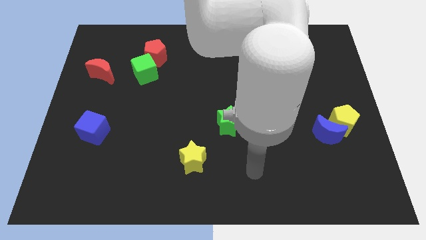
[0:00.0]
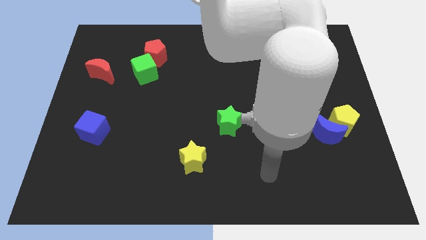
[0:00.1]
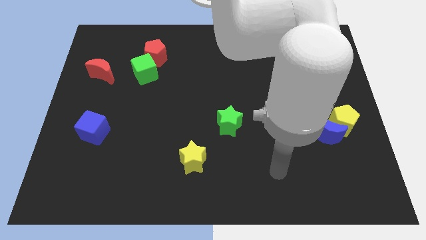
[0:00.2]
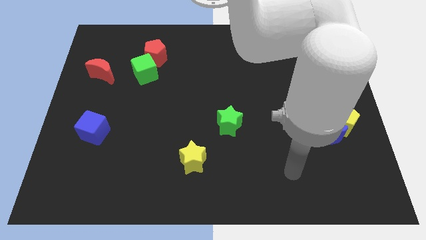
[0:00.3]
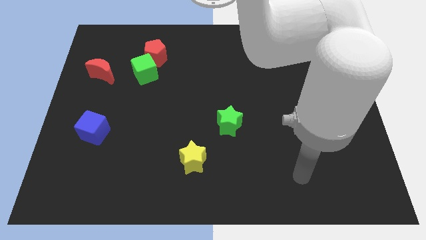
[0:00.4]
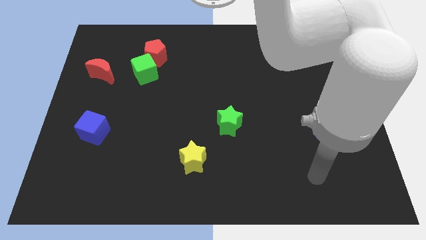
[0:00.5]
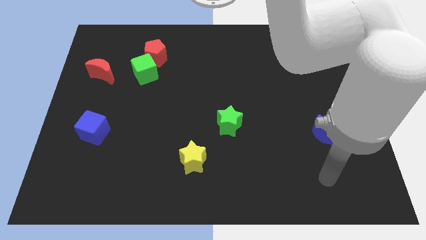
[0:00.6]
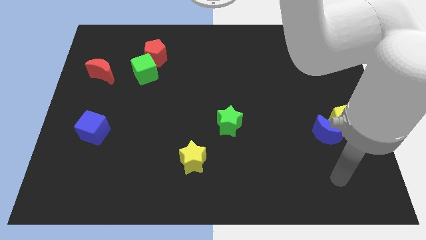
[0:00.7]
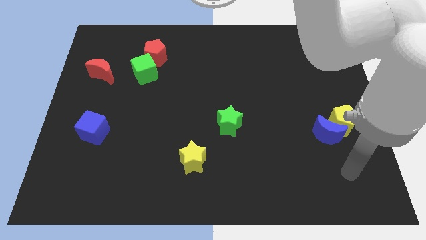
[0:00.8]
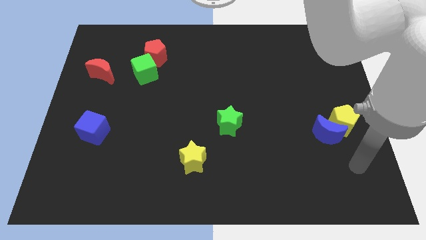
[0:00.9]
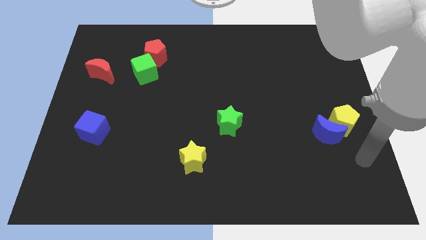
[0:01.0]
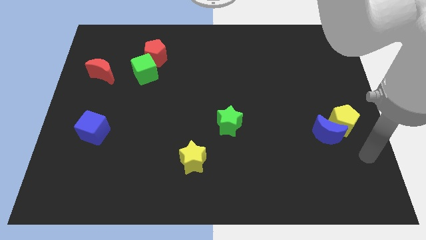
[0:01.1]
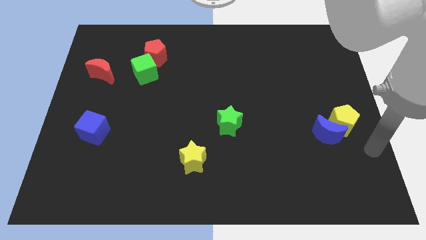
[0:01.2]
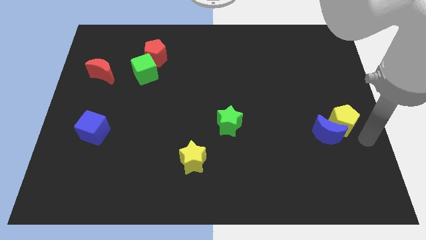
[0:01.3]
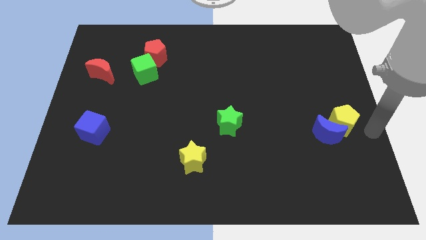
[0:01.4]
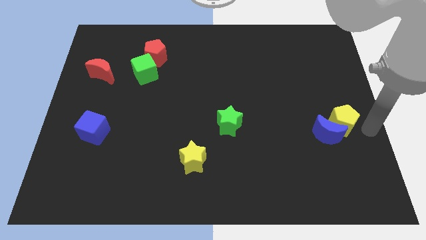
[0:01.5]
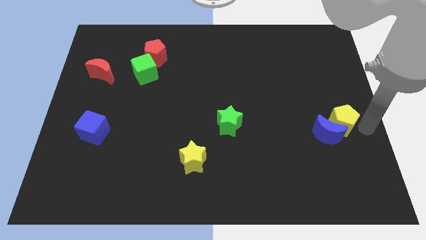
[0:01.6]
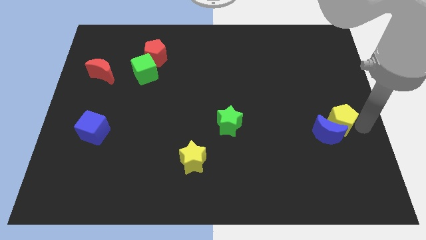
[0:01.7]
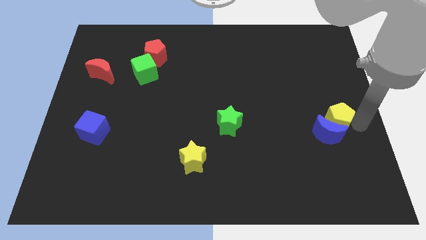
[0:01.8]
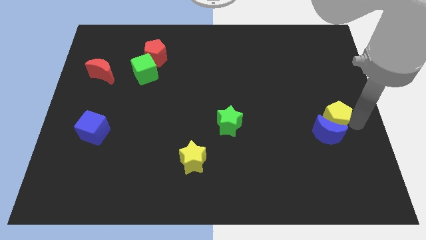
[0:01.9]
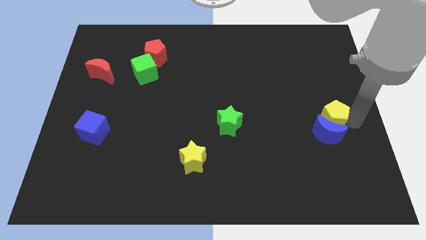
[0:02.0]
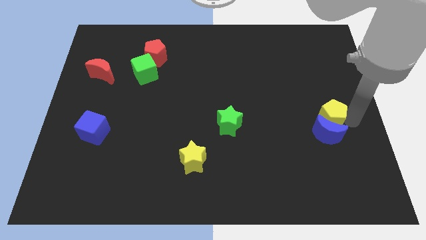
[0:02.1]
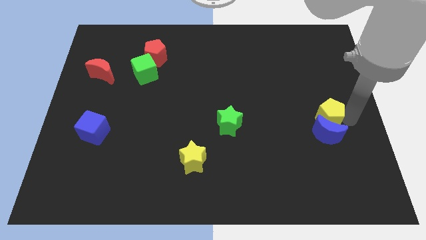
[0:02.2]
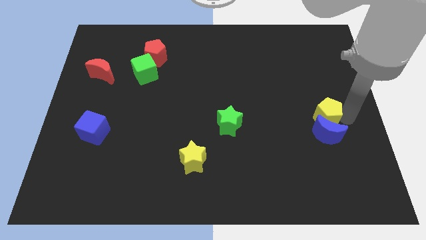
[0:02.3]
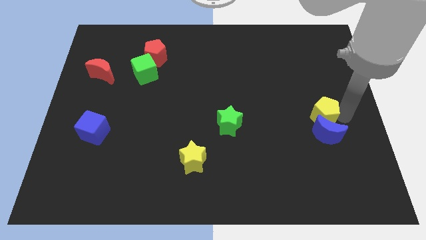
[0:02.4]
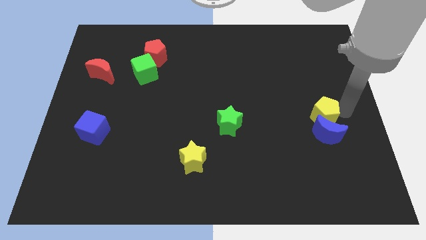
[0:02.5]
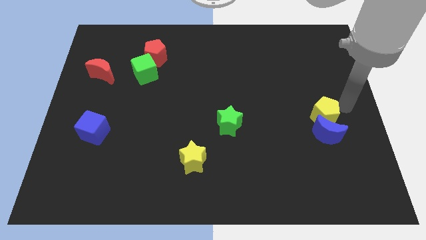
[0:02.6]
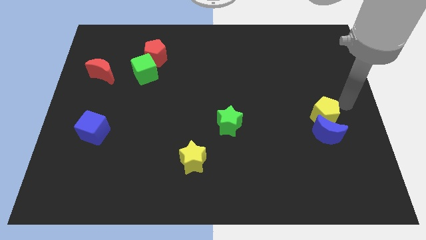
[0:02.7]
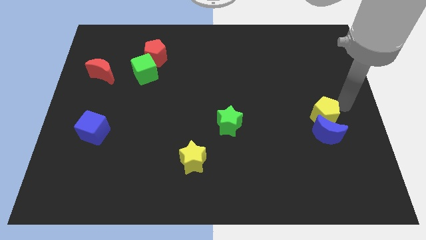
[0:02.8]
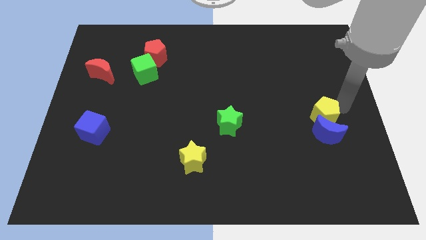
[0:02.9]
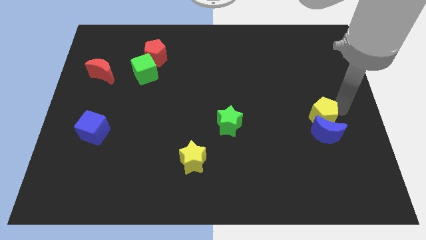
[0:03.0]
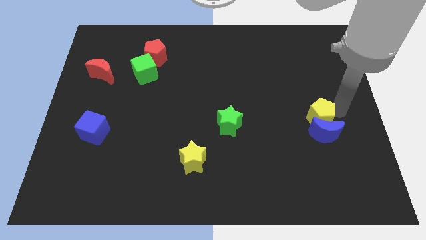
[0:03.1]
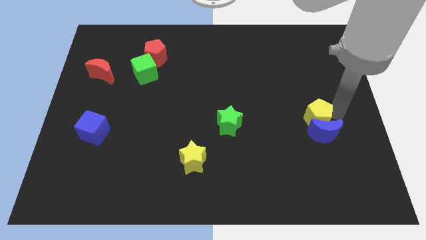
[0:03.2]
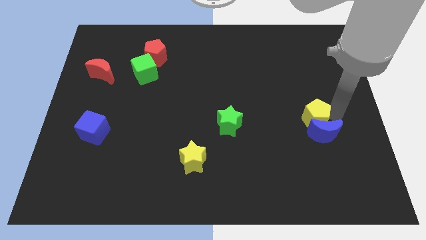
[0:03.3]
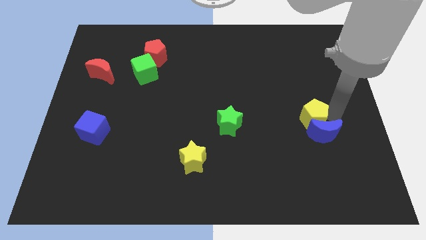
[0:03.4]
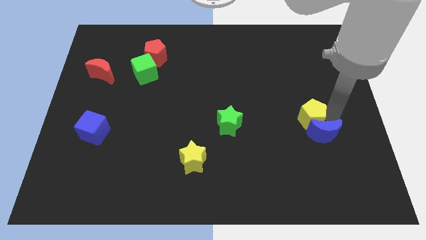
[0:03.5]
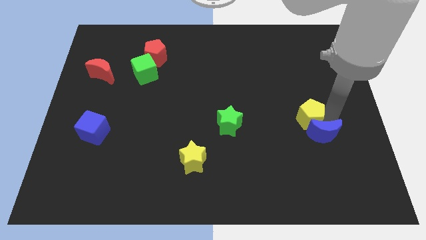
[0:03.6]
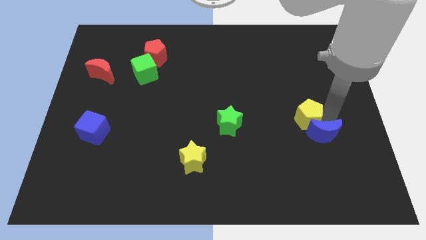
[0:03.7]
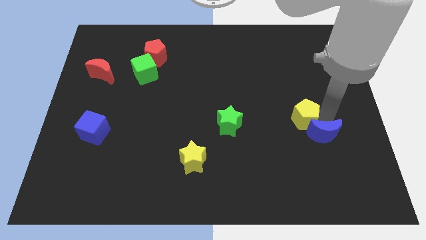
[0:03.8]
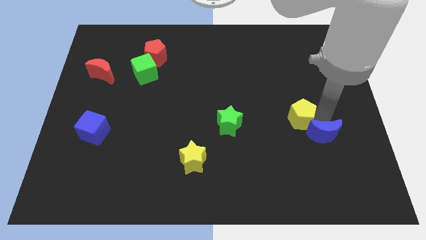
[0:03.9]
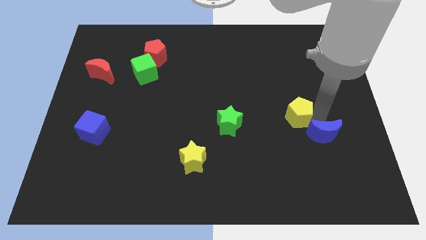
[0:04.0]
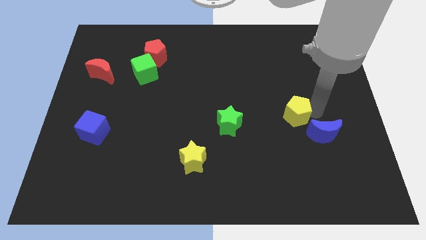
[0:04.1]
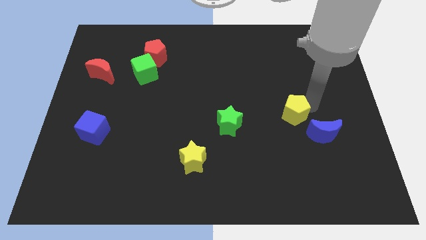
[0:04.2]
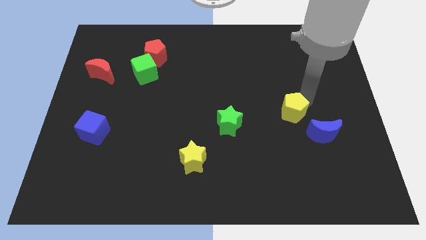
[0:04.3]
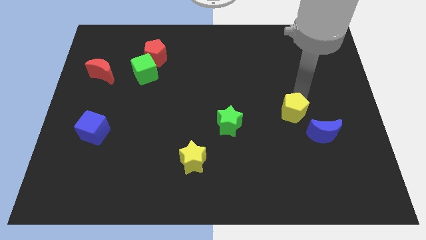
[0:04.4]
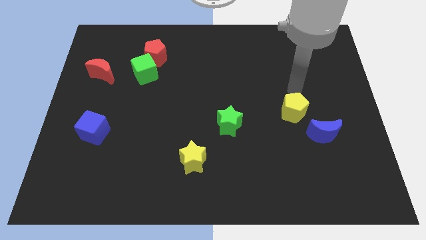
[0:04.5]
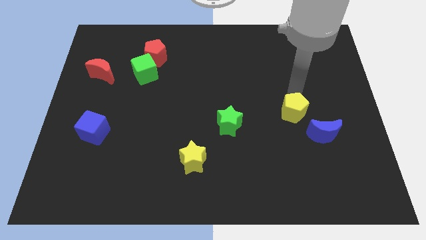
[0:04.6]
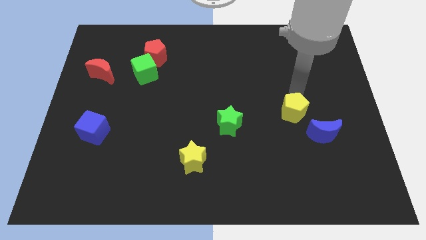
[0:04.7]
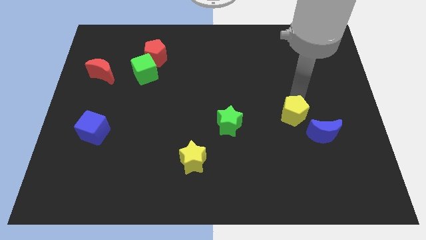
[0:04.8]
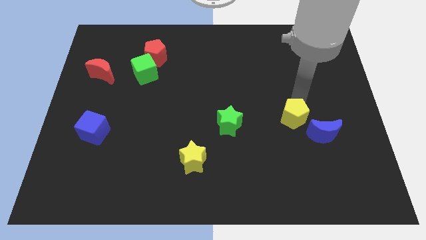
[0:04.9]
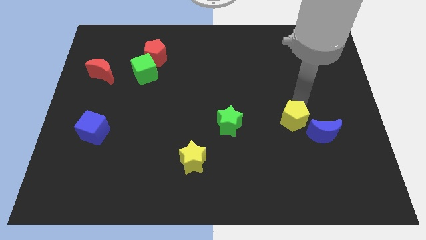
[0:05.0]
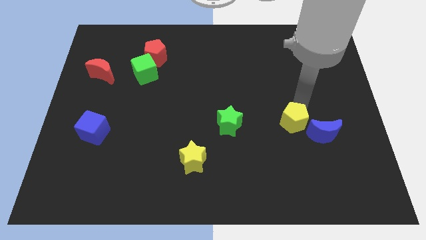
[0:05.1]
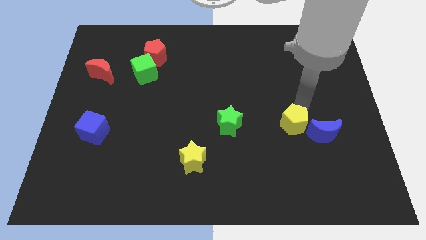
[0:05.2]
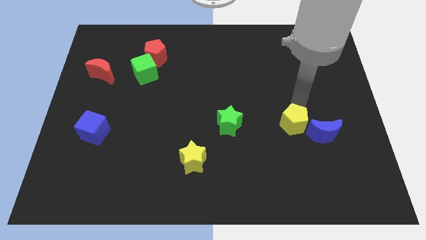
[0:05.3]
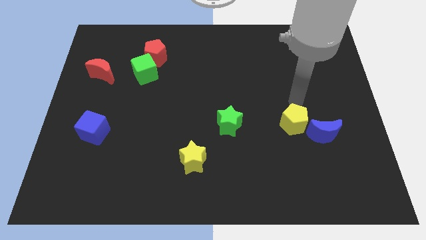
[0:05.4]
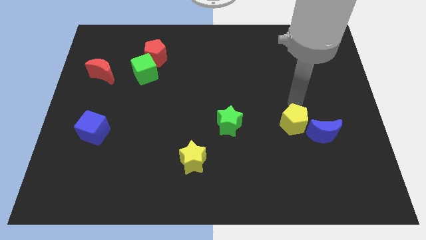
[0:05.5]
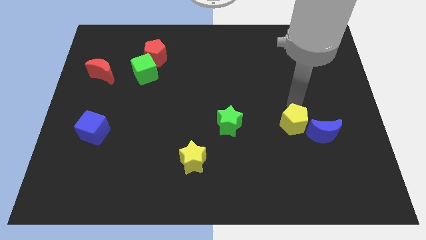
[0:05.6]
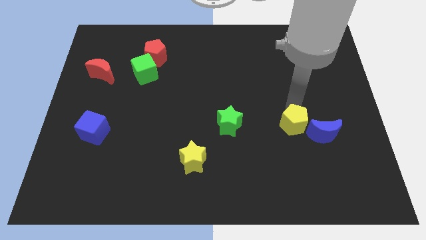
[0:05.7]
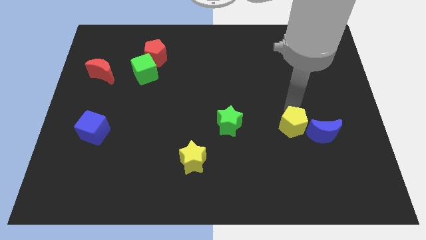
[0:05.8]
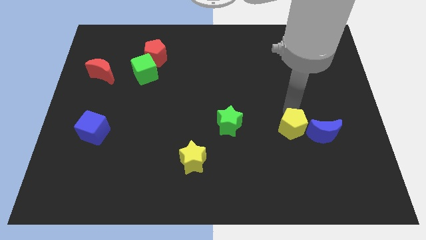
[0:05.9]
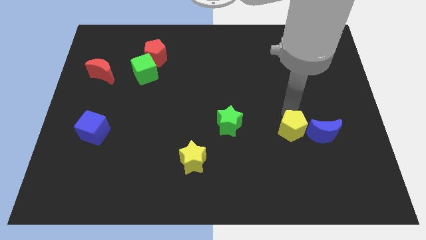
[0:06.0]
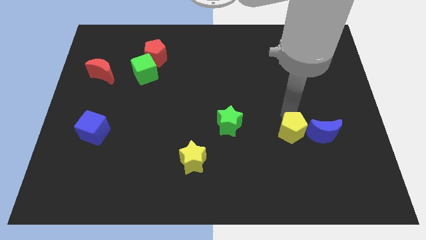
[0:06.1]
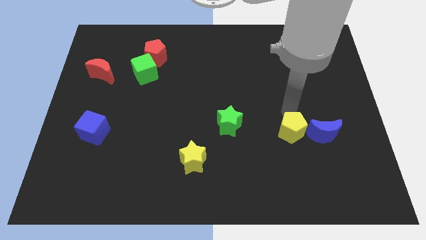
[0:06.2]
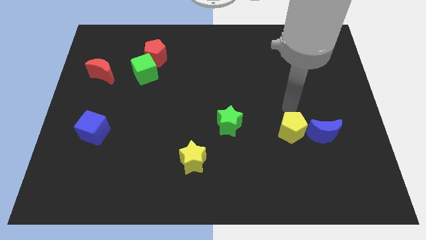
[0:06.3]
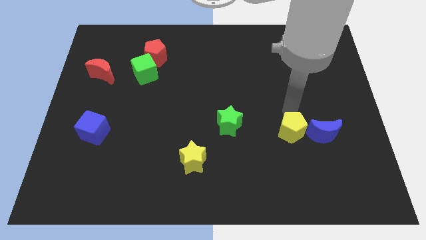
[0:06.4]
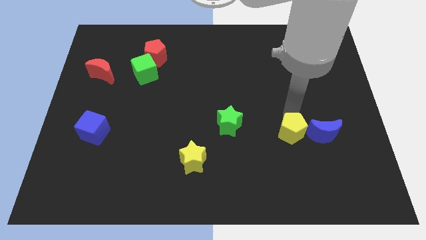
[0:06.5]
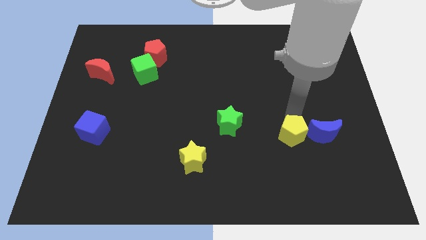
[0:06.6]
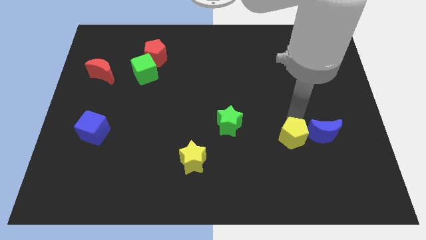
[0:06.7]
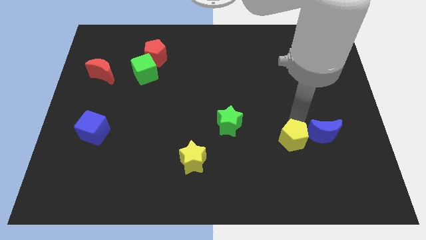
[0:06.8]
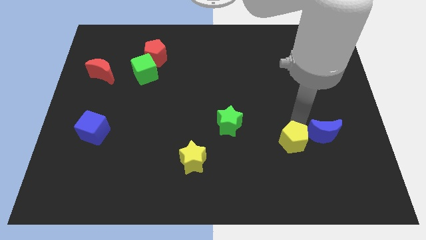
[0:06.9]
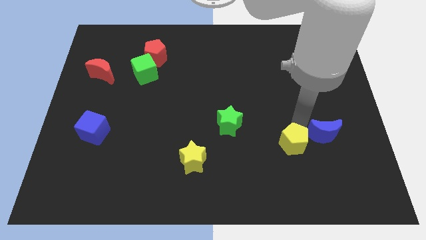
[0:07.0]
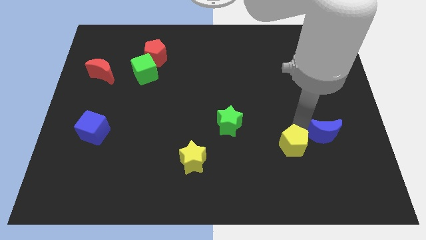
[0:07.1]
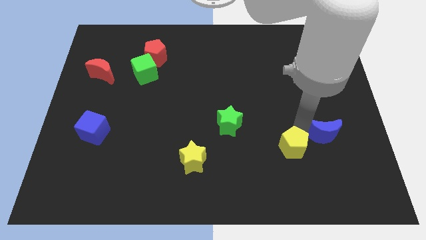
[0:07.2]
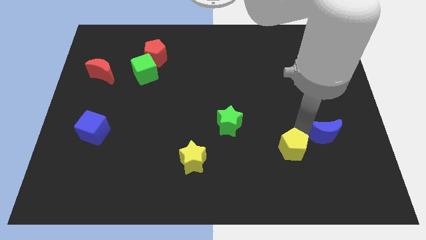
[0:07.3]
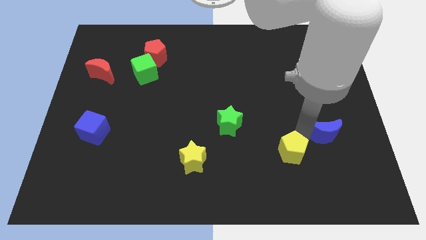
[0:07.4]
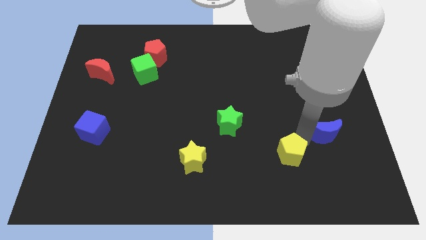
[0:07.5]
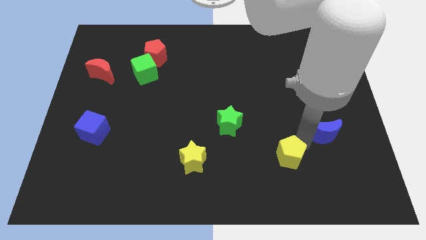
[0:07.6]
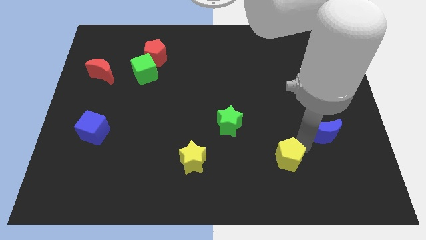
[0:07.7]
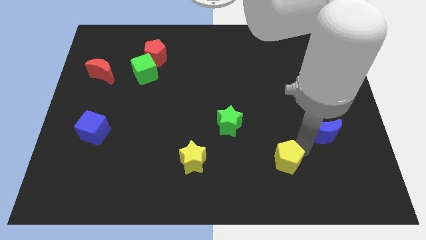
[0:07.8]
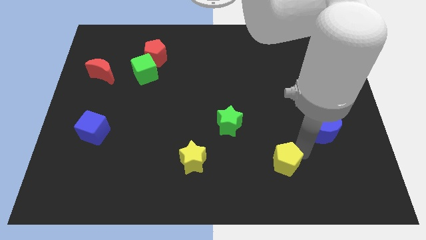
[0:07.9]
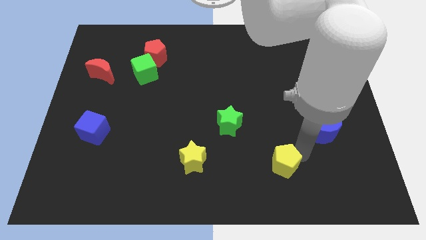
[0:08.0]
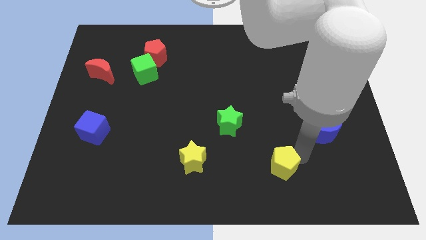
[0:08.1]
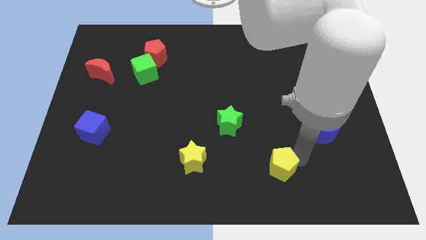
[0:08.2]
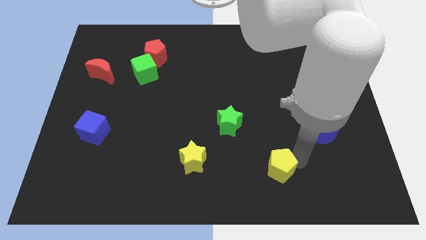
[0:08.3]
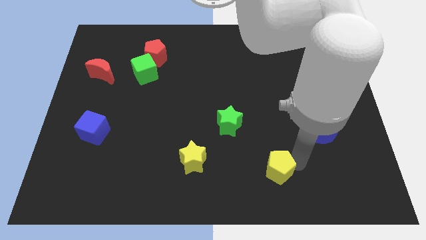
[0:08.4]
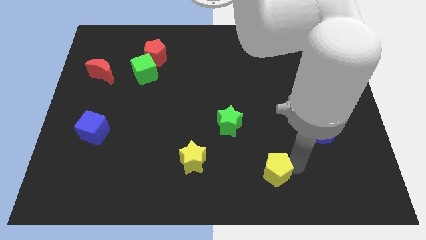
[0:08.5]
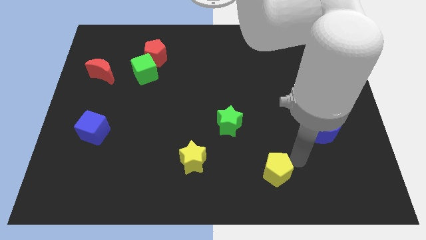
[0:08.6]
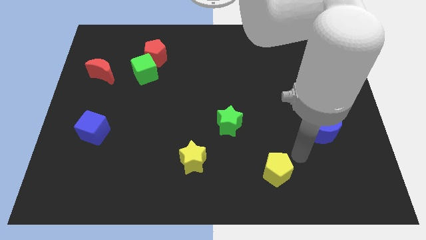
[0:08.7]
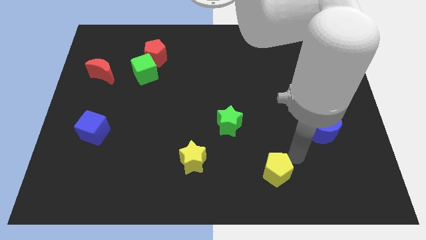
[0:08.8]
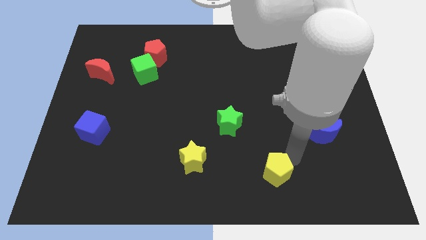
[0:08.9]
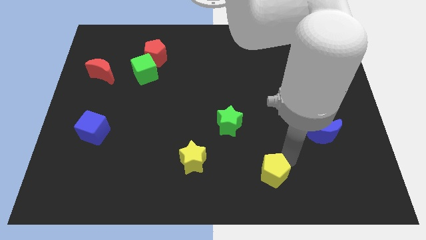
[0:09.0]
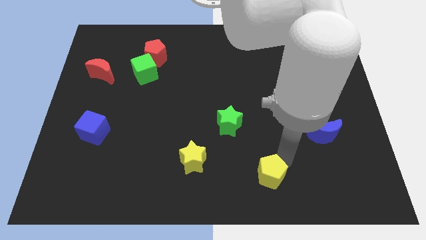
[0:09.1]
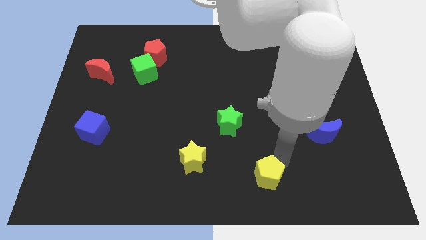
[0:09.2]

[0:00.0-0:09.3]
move the yellow pentagon to the bottom side
